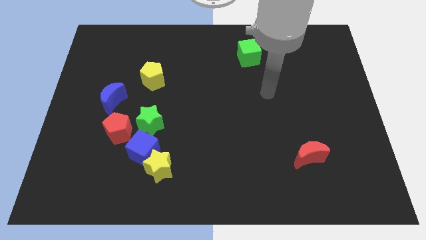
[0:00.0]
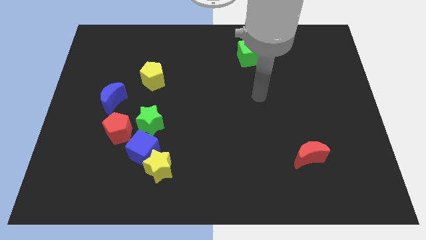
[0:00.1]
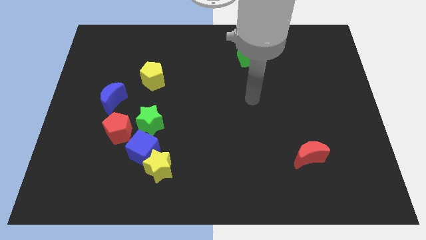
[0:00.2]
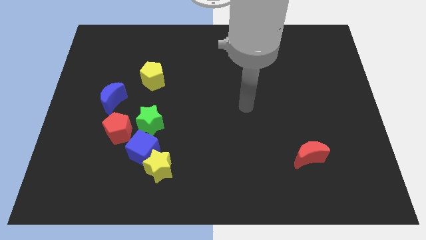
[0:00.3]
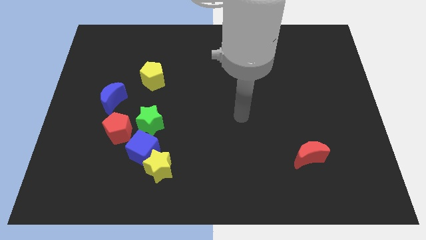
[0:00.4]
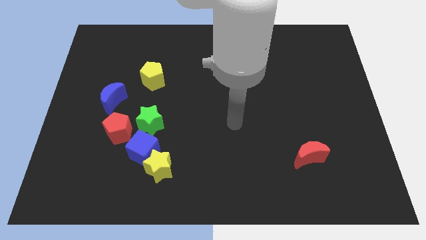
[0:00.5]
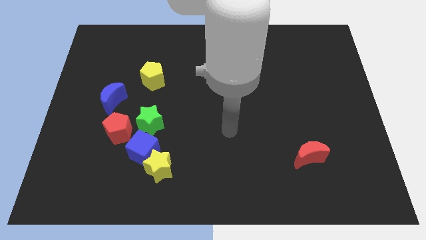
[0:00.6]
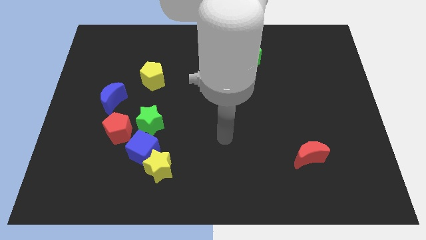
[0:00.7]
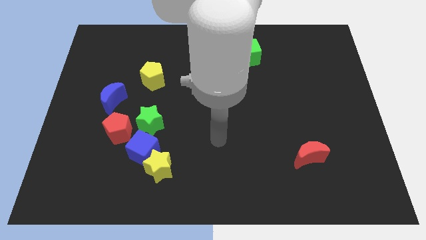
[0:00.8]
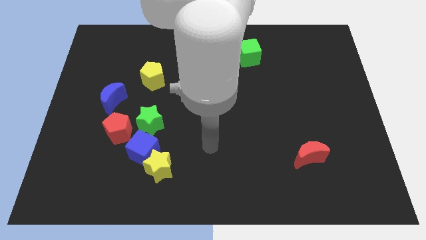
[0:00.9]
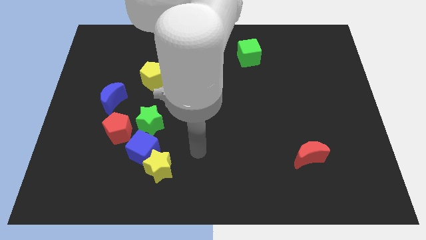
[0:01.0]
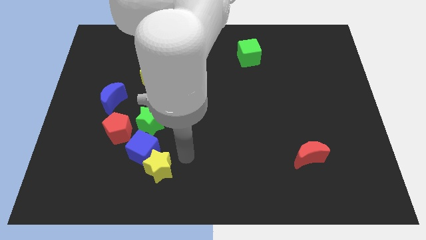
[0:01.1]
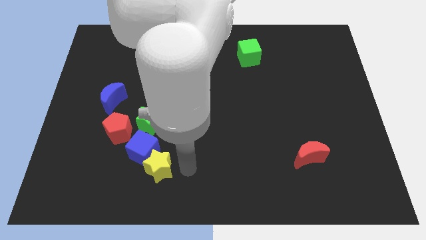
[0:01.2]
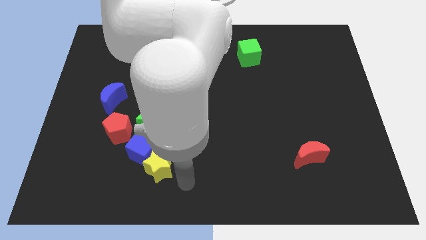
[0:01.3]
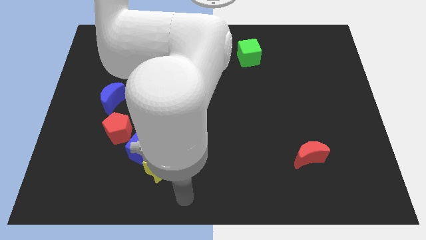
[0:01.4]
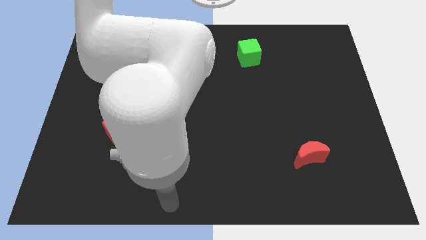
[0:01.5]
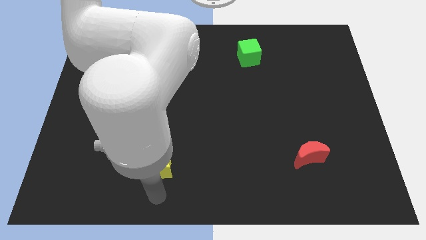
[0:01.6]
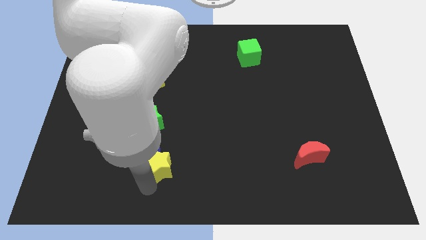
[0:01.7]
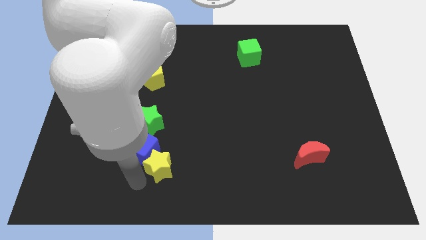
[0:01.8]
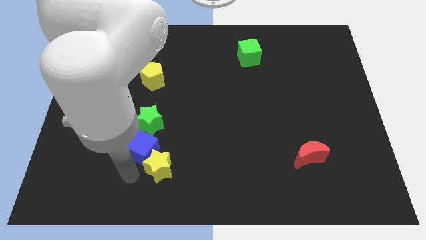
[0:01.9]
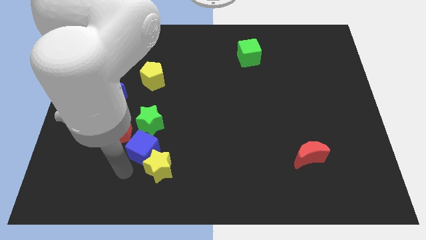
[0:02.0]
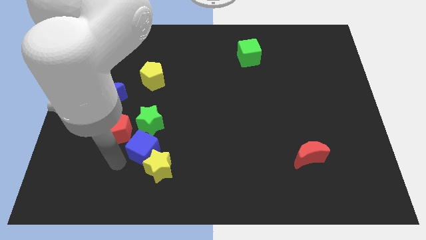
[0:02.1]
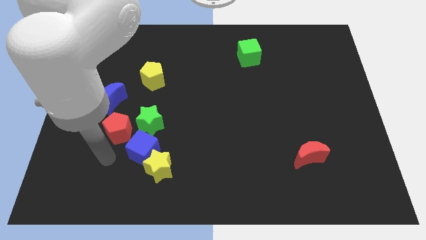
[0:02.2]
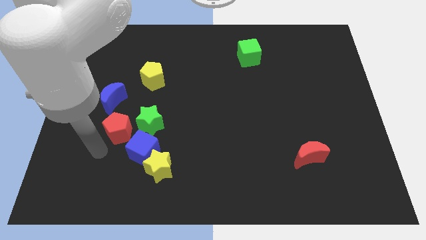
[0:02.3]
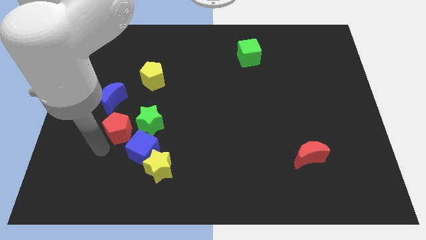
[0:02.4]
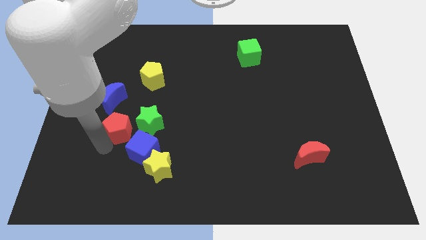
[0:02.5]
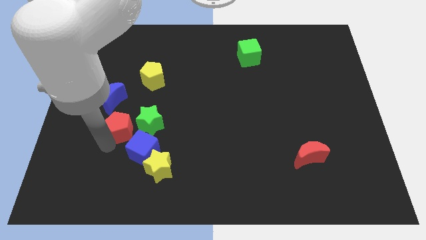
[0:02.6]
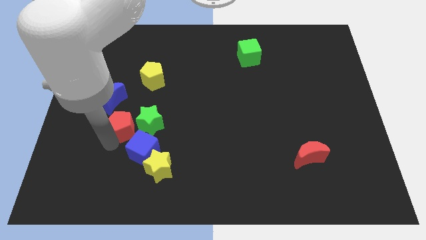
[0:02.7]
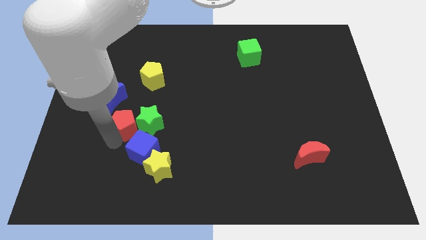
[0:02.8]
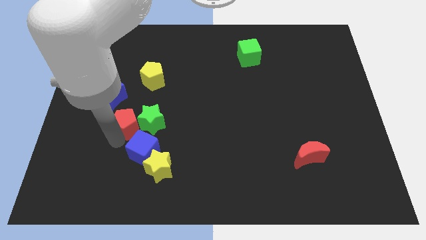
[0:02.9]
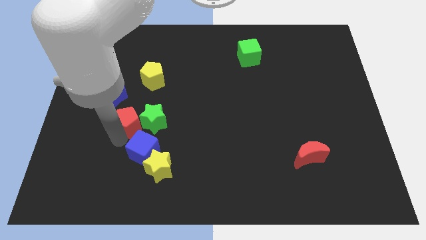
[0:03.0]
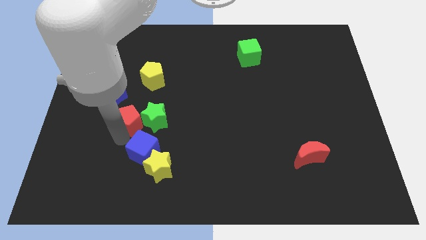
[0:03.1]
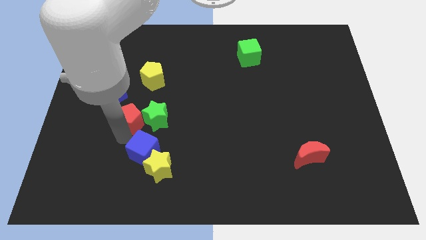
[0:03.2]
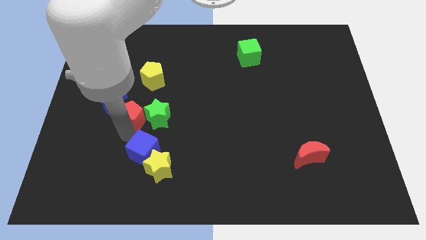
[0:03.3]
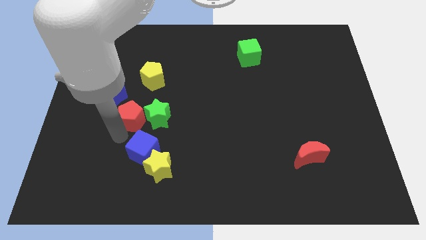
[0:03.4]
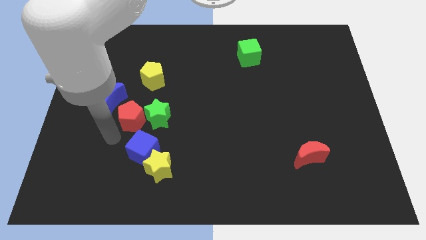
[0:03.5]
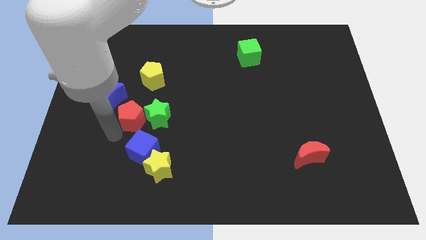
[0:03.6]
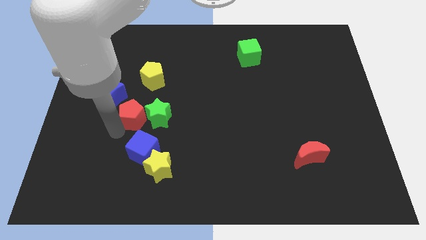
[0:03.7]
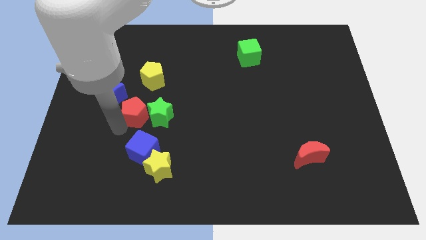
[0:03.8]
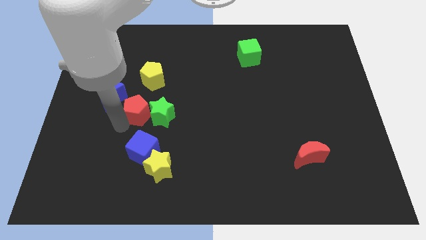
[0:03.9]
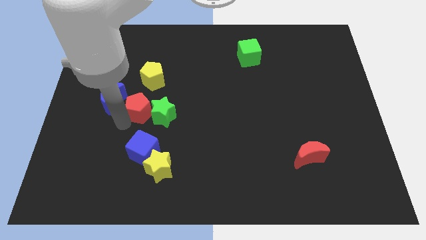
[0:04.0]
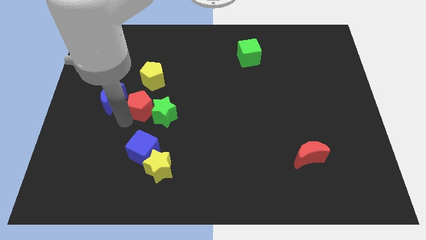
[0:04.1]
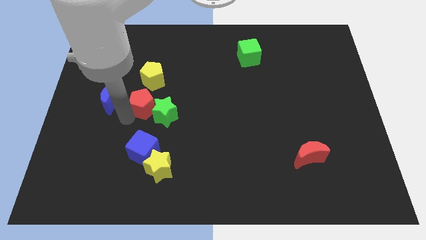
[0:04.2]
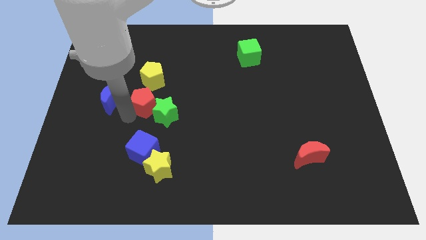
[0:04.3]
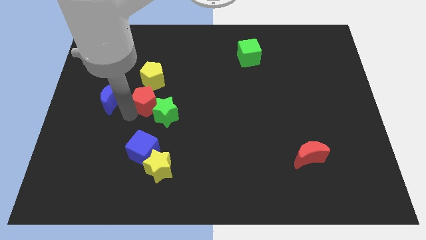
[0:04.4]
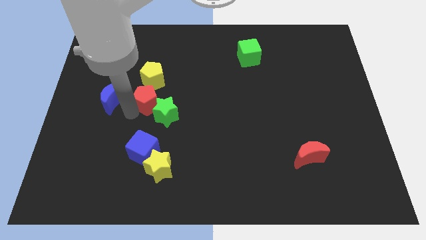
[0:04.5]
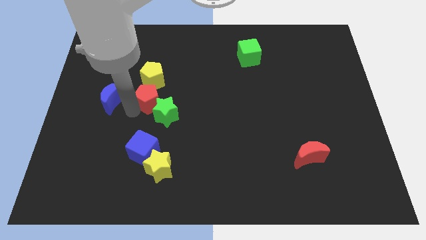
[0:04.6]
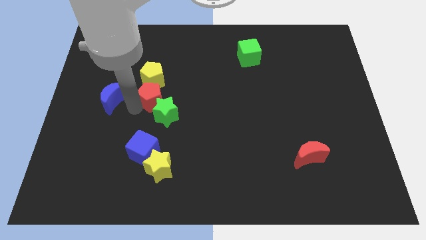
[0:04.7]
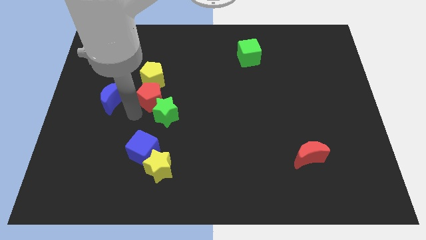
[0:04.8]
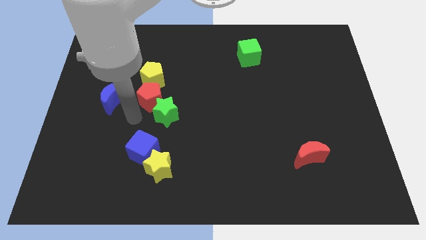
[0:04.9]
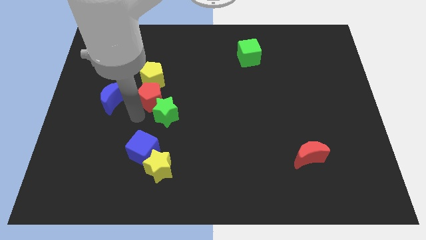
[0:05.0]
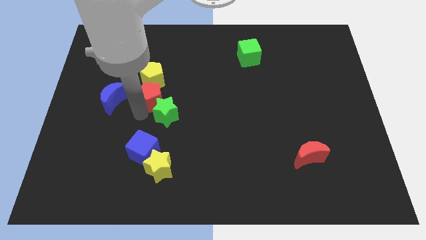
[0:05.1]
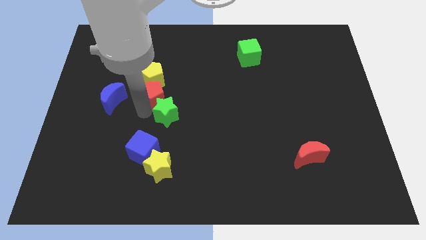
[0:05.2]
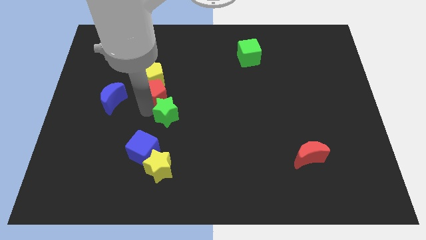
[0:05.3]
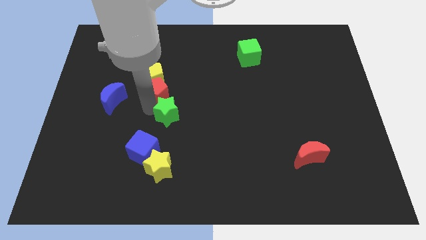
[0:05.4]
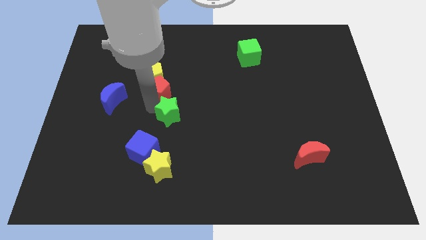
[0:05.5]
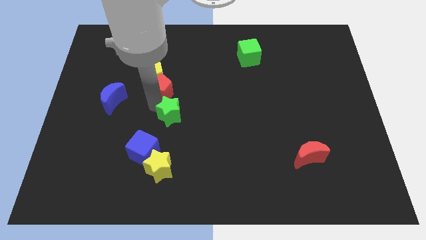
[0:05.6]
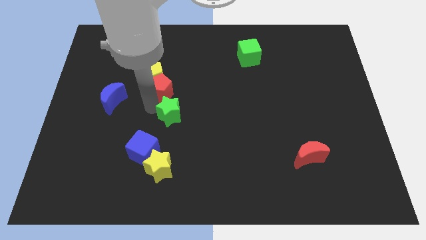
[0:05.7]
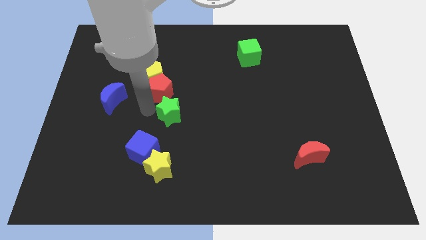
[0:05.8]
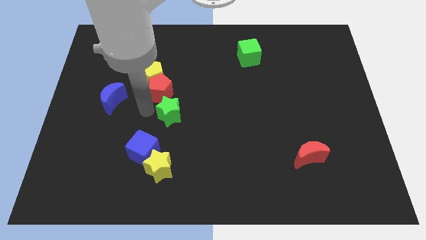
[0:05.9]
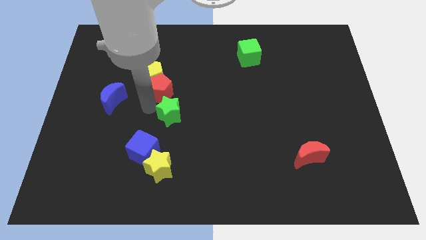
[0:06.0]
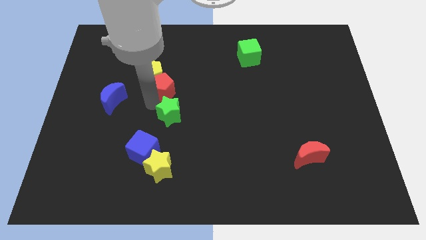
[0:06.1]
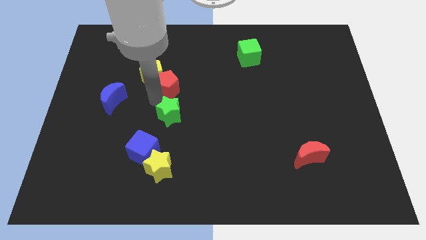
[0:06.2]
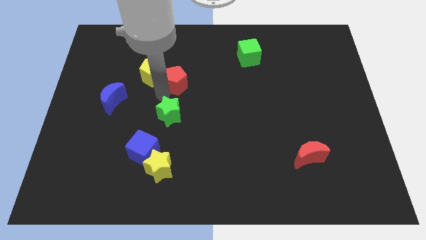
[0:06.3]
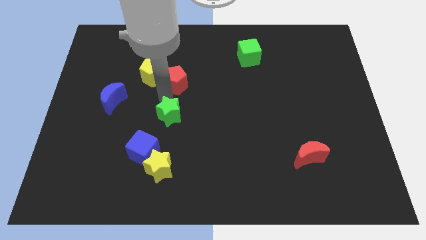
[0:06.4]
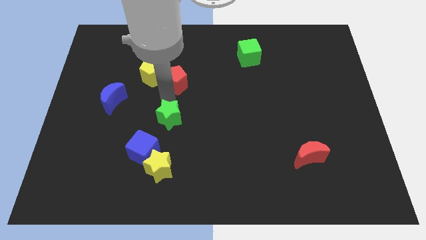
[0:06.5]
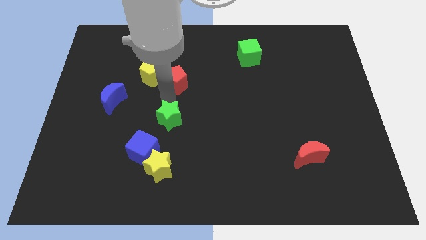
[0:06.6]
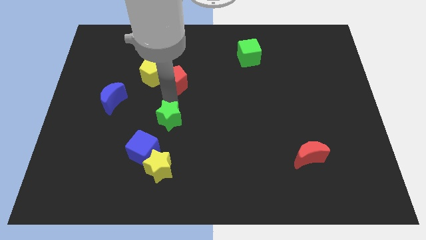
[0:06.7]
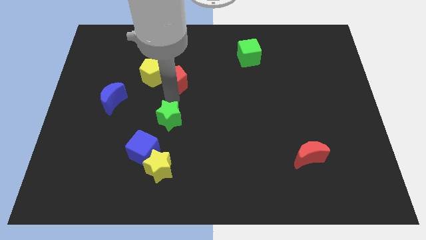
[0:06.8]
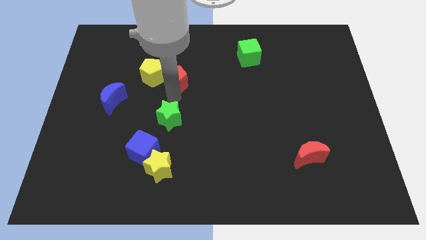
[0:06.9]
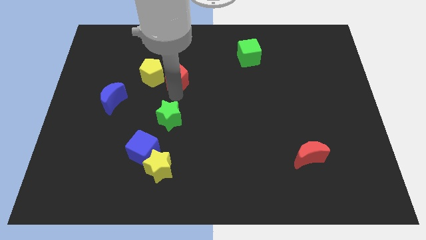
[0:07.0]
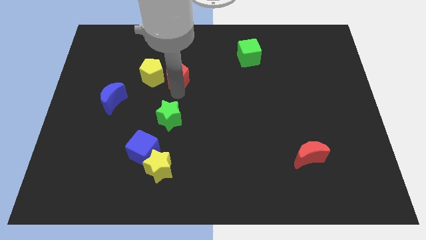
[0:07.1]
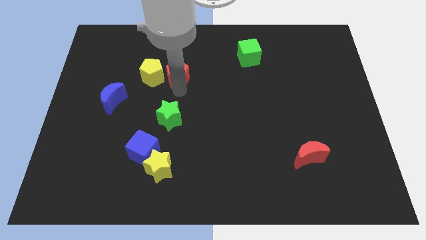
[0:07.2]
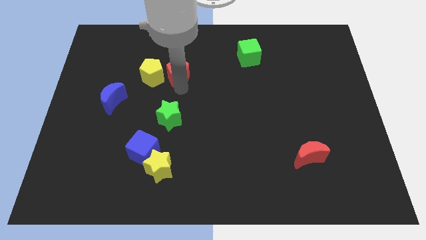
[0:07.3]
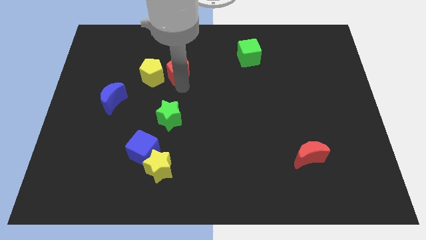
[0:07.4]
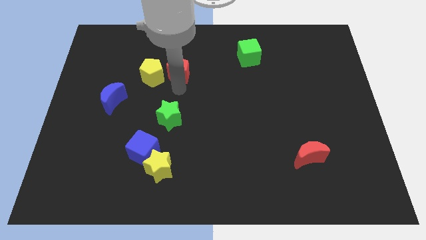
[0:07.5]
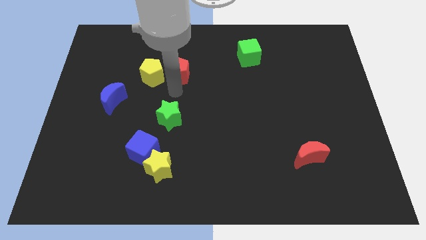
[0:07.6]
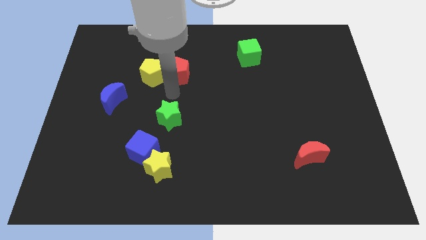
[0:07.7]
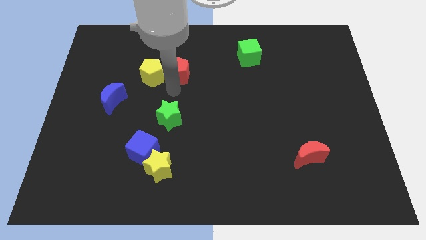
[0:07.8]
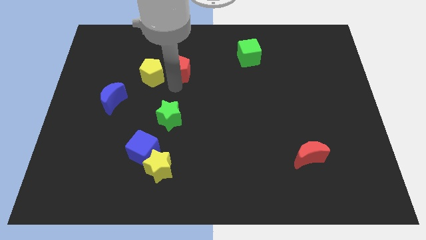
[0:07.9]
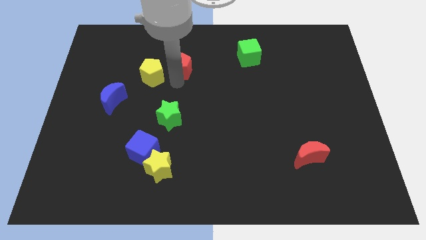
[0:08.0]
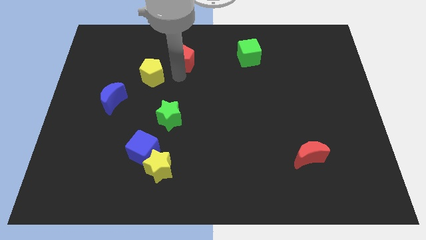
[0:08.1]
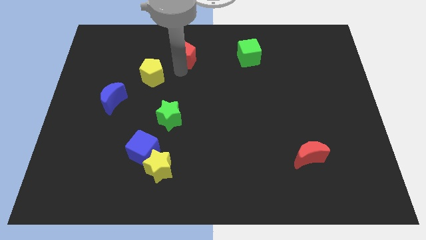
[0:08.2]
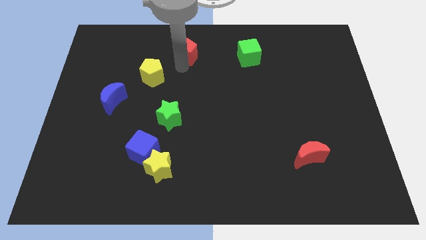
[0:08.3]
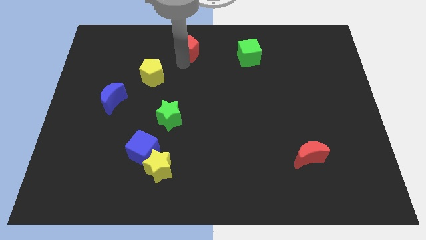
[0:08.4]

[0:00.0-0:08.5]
slide the red pentagon to the top
